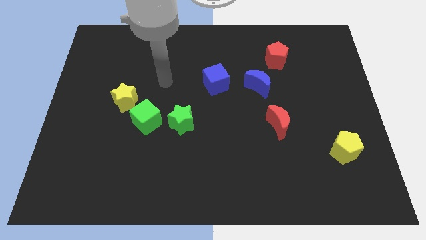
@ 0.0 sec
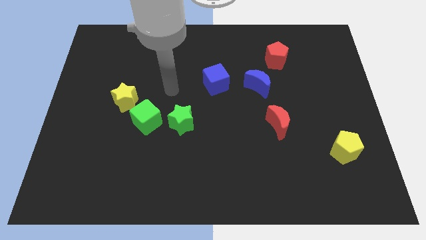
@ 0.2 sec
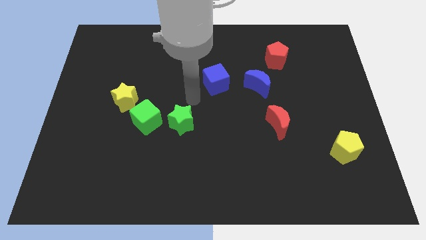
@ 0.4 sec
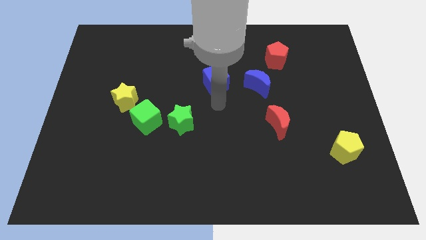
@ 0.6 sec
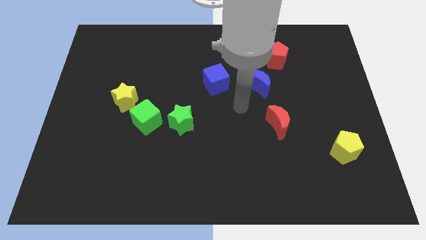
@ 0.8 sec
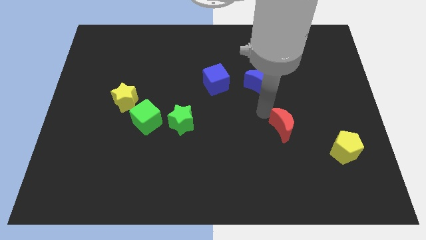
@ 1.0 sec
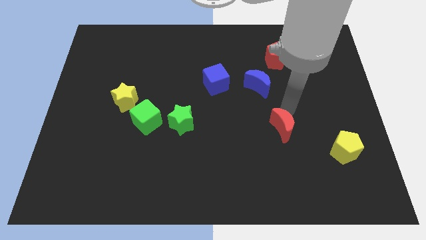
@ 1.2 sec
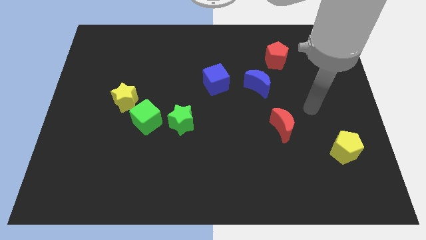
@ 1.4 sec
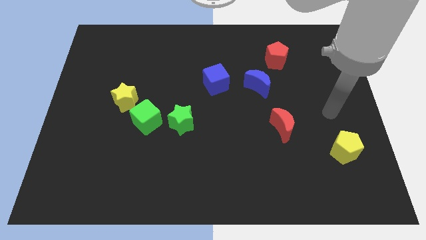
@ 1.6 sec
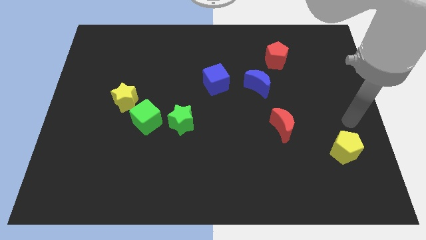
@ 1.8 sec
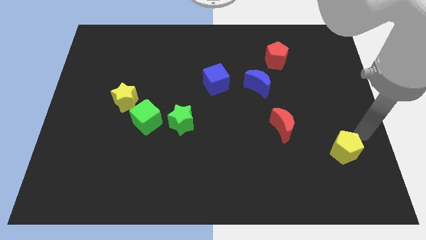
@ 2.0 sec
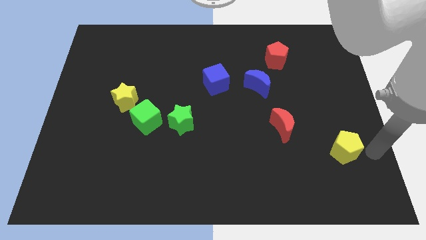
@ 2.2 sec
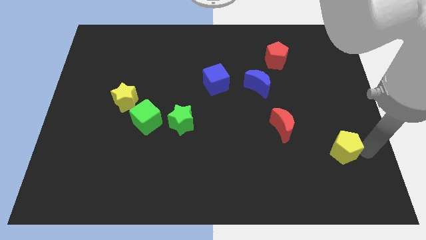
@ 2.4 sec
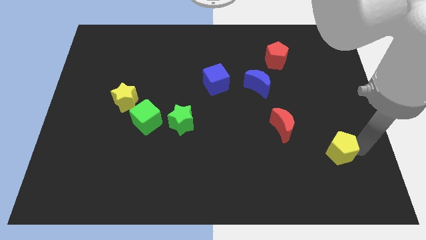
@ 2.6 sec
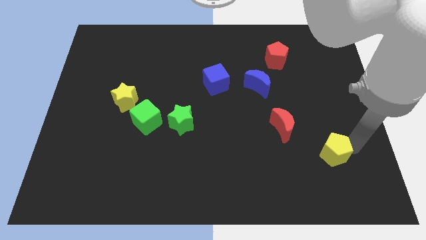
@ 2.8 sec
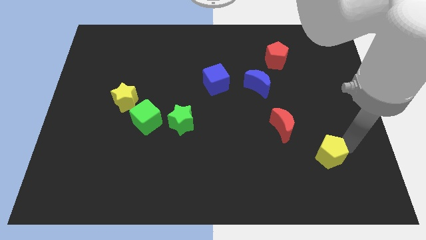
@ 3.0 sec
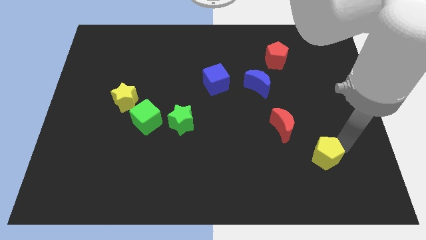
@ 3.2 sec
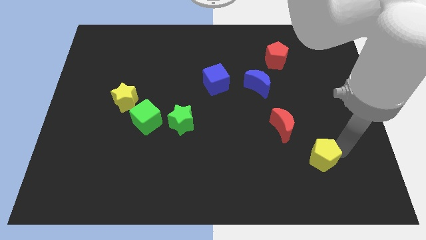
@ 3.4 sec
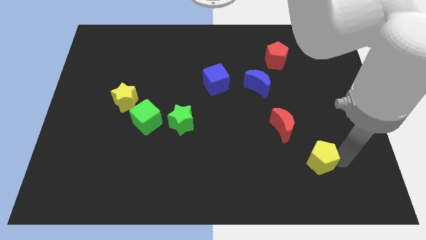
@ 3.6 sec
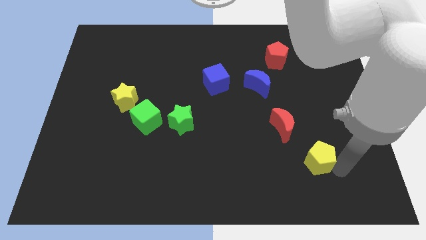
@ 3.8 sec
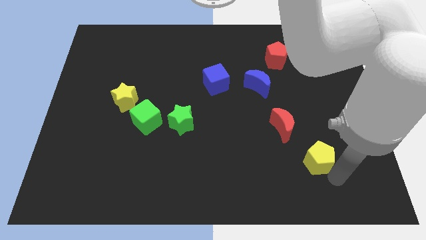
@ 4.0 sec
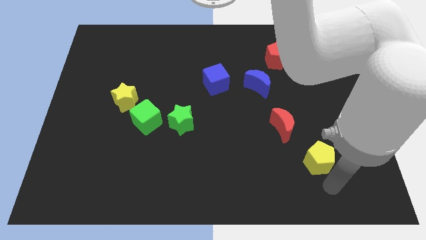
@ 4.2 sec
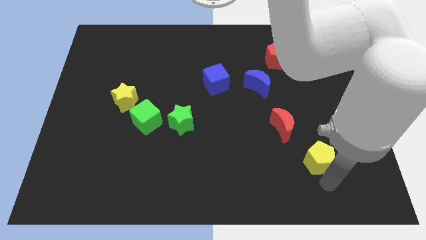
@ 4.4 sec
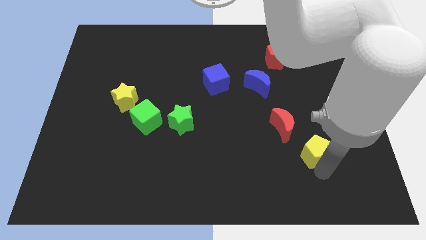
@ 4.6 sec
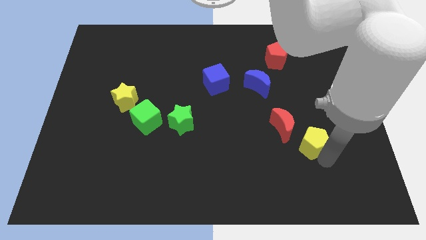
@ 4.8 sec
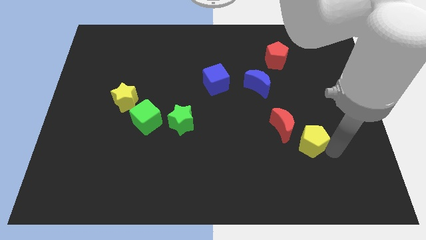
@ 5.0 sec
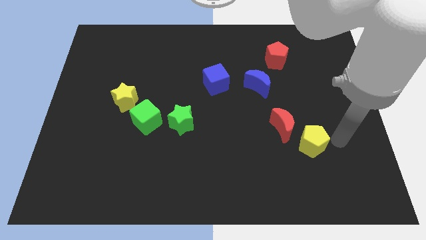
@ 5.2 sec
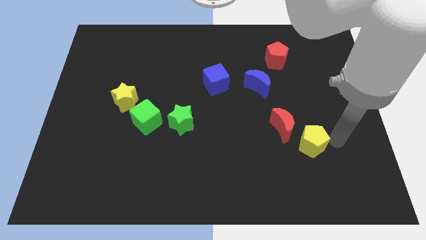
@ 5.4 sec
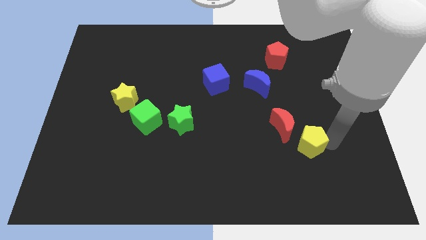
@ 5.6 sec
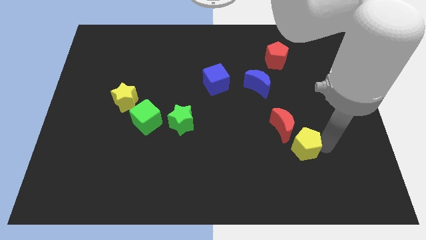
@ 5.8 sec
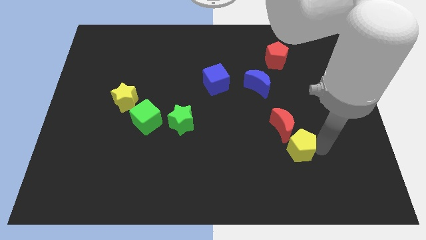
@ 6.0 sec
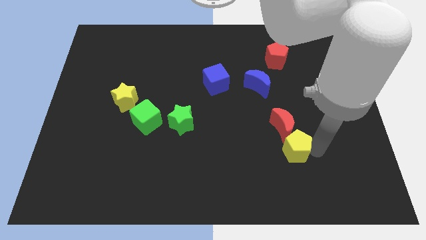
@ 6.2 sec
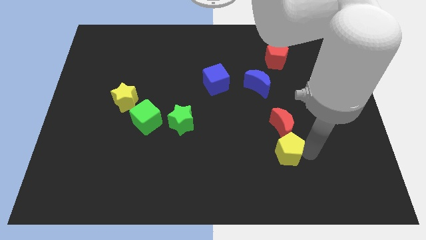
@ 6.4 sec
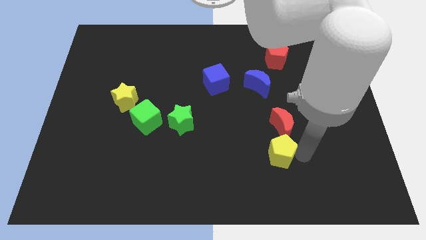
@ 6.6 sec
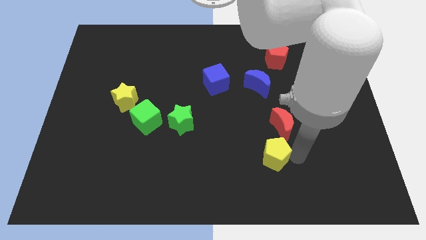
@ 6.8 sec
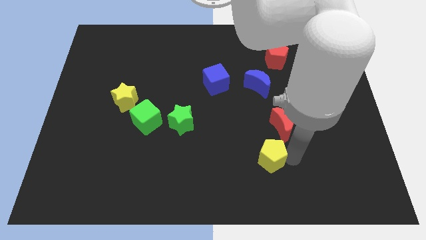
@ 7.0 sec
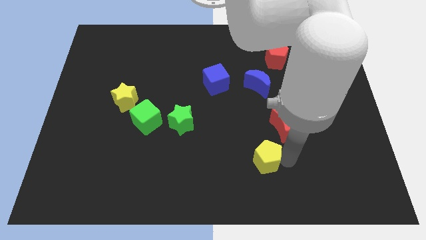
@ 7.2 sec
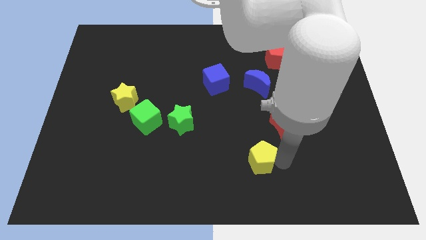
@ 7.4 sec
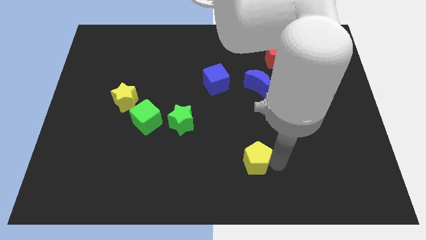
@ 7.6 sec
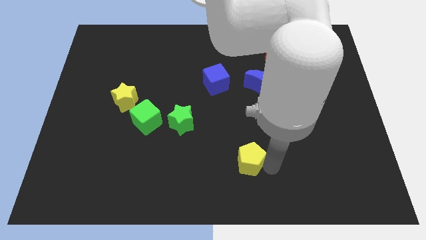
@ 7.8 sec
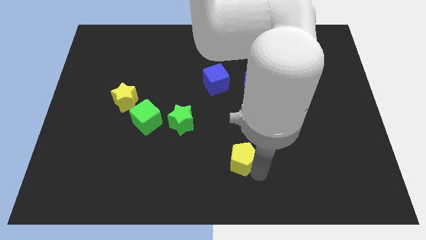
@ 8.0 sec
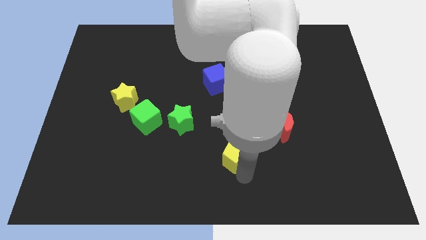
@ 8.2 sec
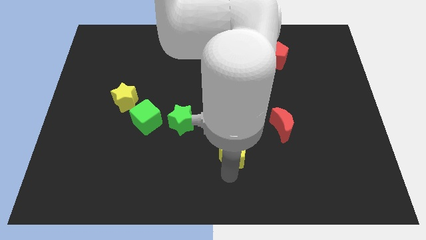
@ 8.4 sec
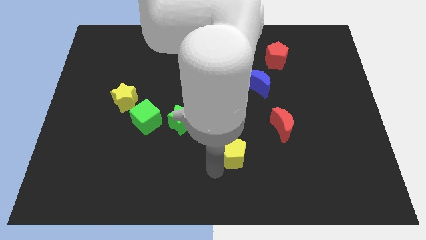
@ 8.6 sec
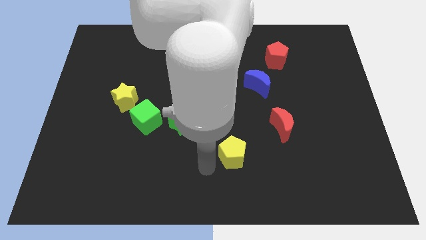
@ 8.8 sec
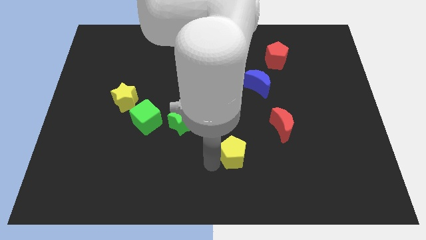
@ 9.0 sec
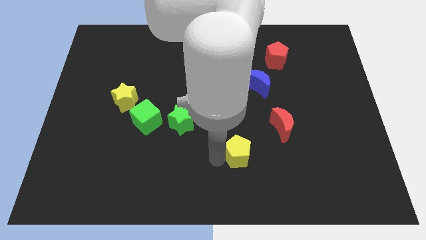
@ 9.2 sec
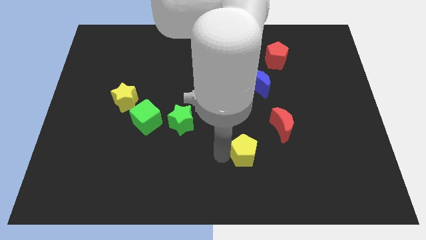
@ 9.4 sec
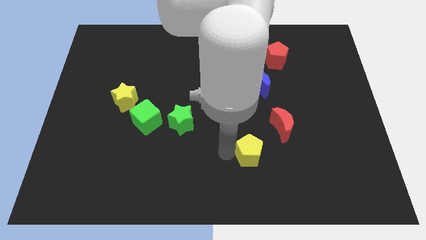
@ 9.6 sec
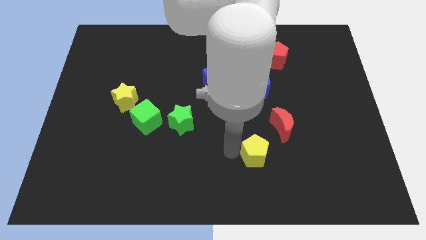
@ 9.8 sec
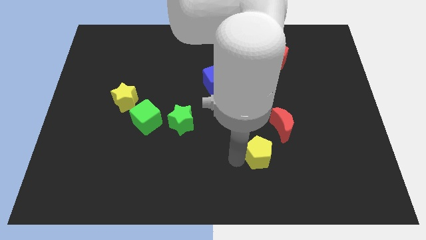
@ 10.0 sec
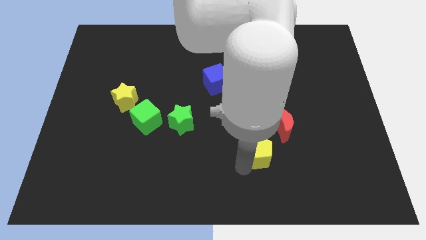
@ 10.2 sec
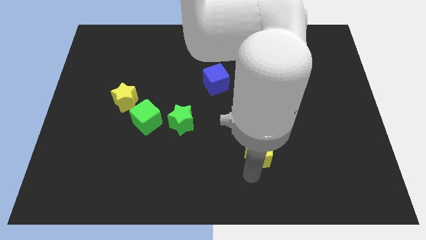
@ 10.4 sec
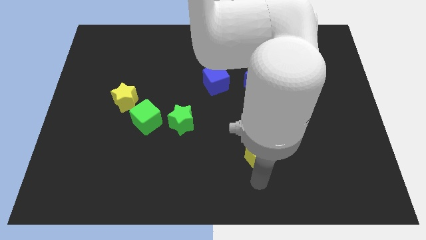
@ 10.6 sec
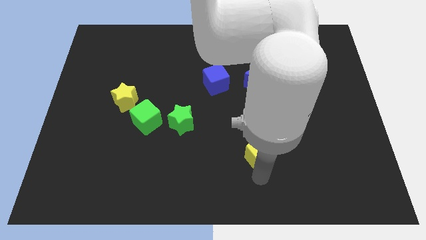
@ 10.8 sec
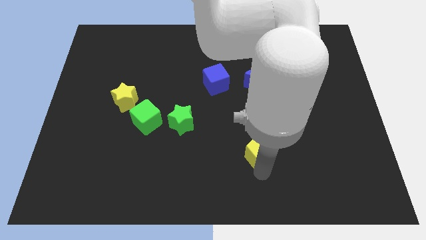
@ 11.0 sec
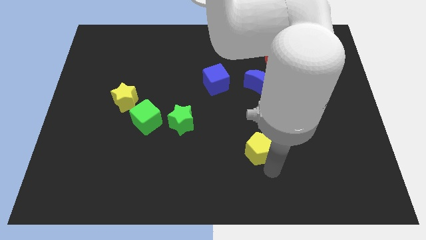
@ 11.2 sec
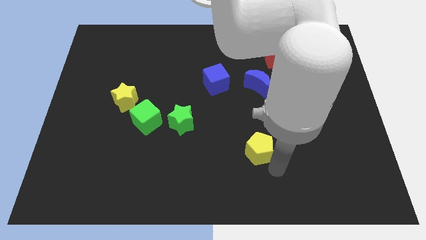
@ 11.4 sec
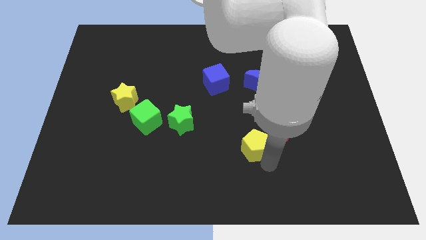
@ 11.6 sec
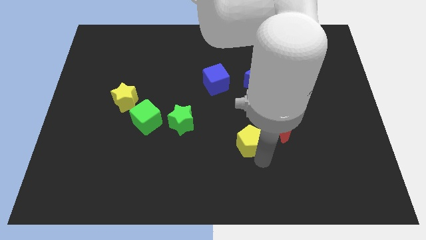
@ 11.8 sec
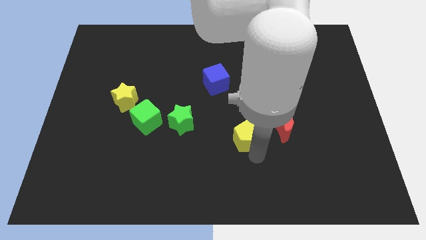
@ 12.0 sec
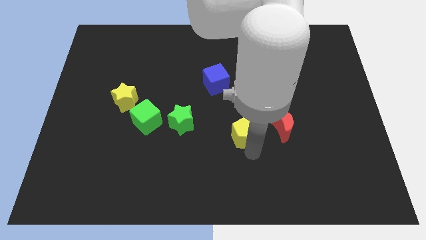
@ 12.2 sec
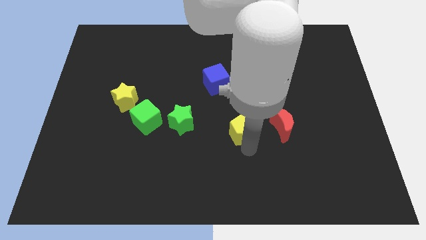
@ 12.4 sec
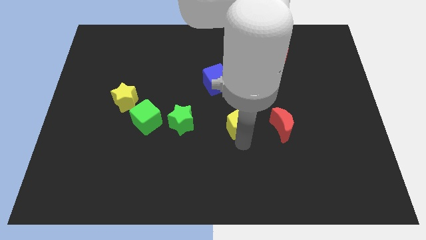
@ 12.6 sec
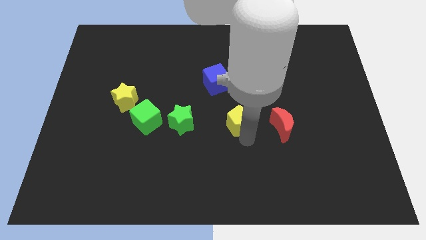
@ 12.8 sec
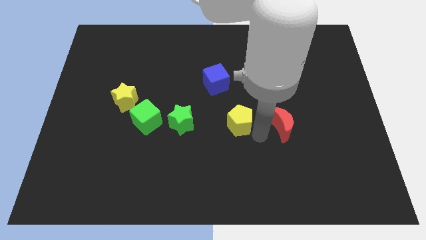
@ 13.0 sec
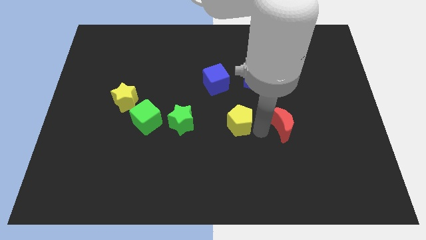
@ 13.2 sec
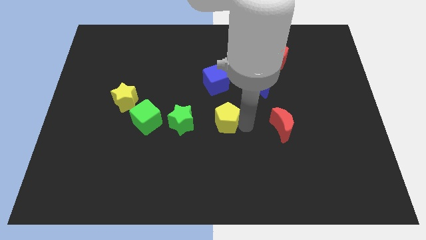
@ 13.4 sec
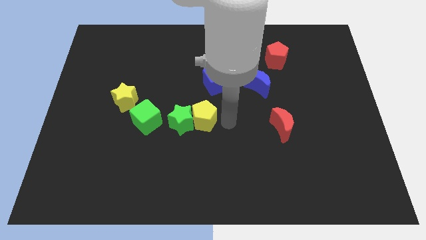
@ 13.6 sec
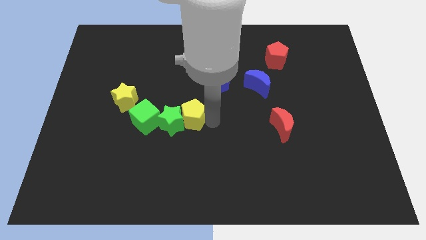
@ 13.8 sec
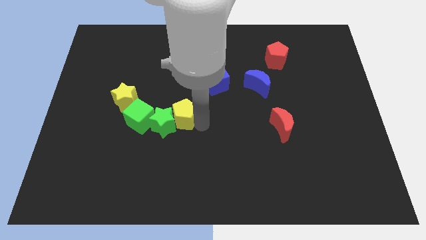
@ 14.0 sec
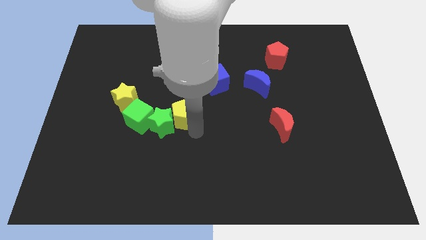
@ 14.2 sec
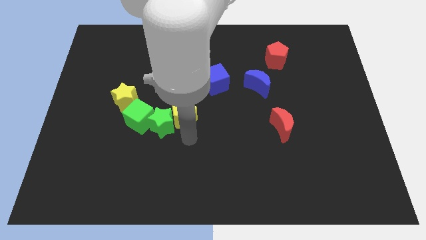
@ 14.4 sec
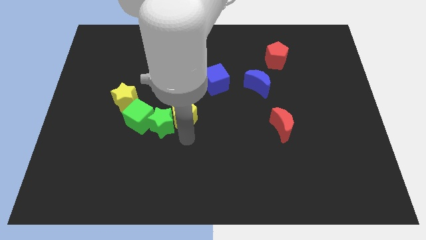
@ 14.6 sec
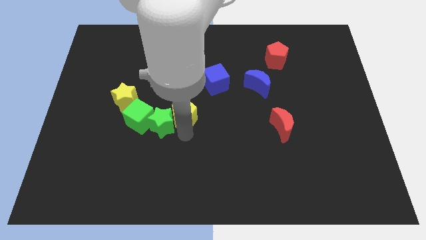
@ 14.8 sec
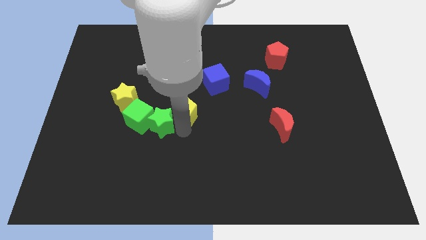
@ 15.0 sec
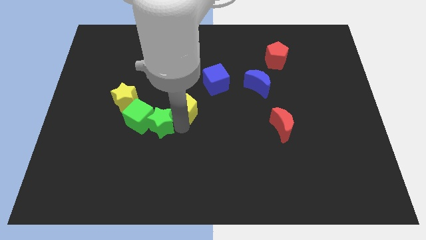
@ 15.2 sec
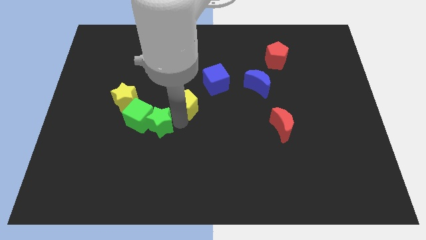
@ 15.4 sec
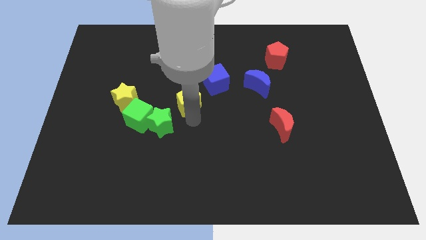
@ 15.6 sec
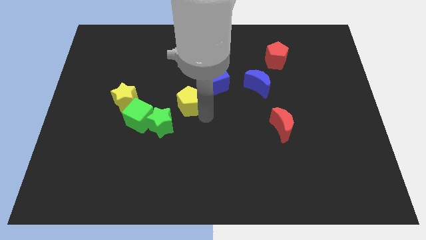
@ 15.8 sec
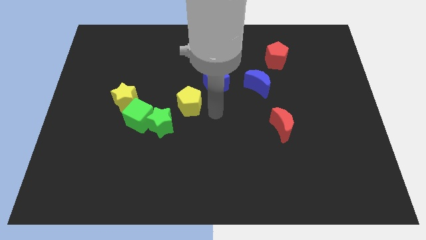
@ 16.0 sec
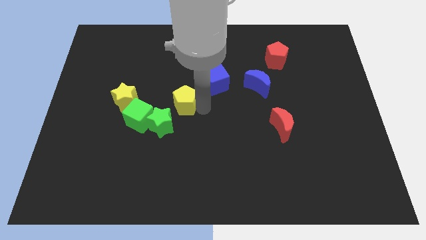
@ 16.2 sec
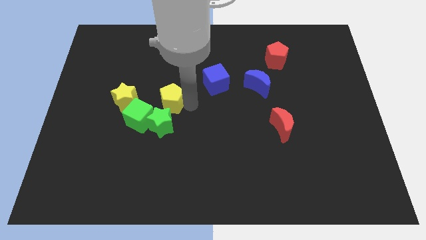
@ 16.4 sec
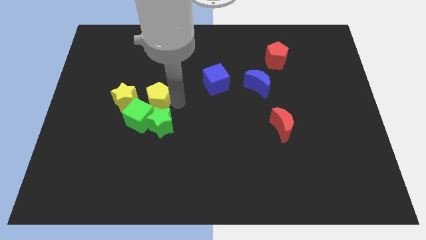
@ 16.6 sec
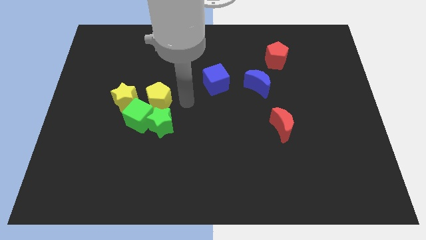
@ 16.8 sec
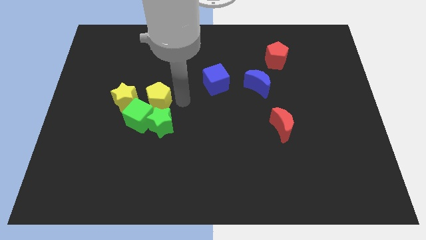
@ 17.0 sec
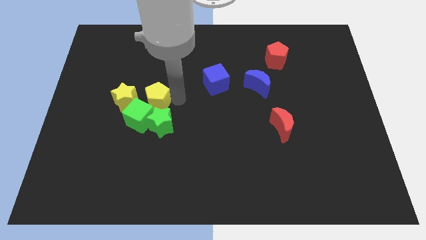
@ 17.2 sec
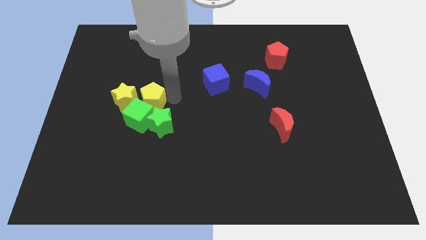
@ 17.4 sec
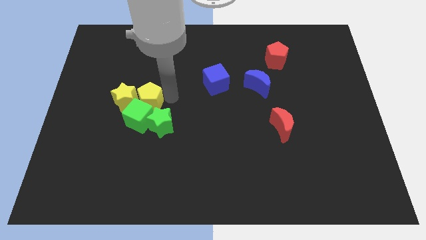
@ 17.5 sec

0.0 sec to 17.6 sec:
move the yellow pentagon next to the yellow star
